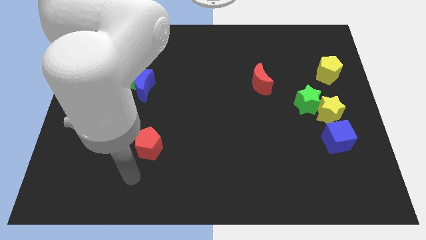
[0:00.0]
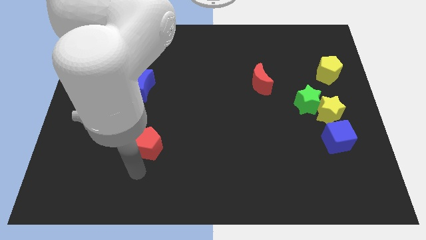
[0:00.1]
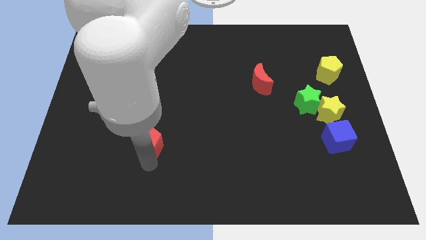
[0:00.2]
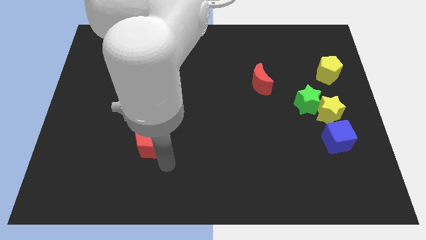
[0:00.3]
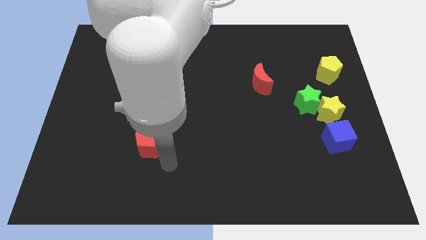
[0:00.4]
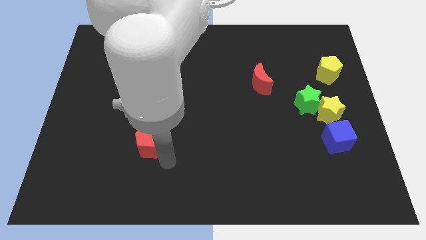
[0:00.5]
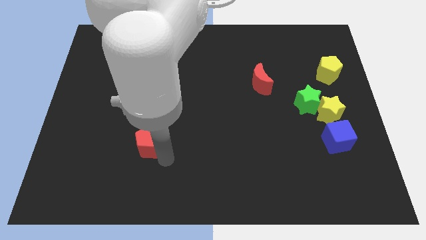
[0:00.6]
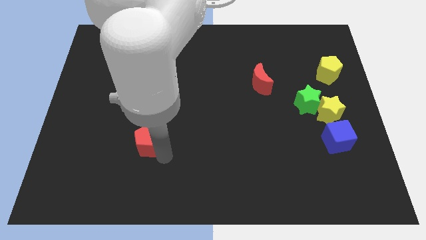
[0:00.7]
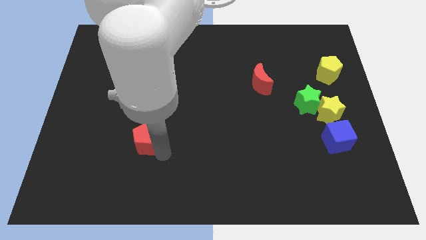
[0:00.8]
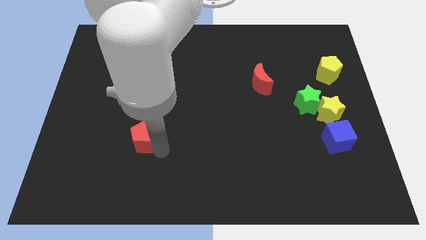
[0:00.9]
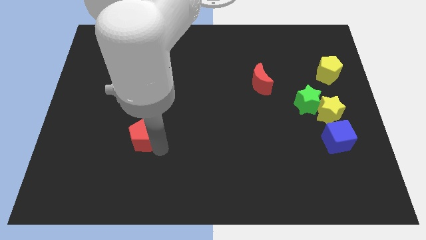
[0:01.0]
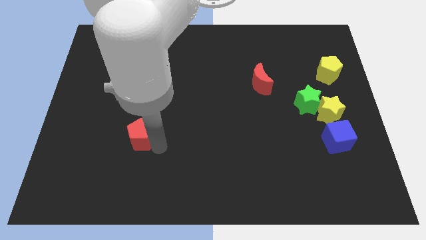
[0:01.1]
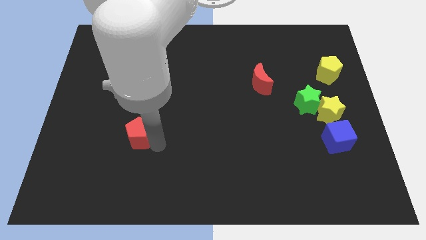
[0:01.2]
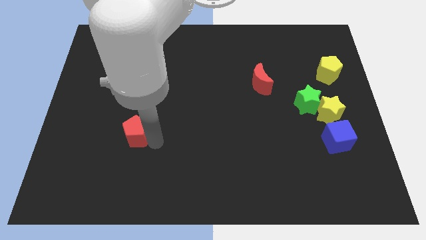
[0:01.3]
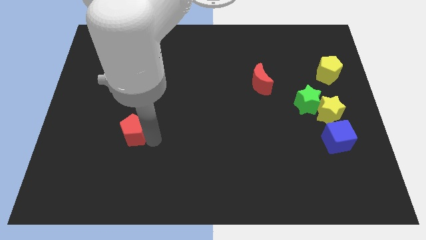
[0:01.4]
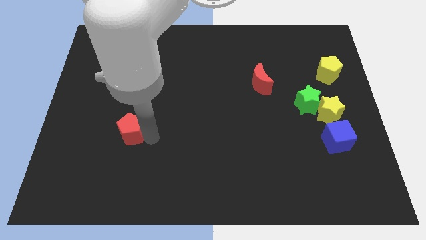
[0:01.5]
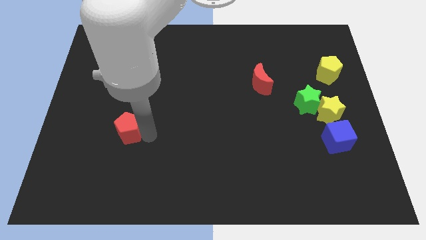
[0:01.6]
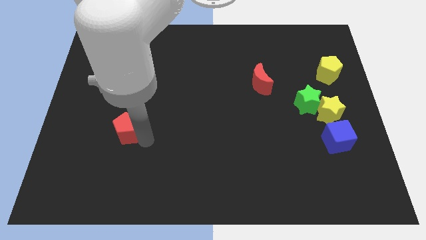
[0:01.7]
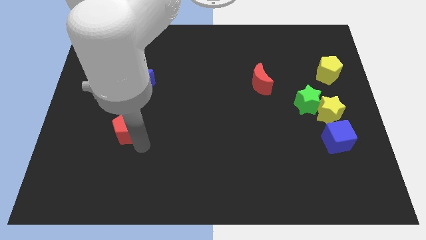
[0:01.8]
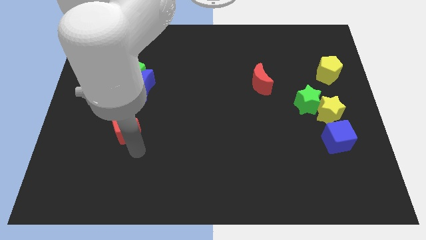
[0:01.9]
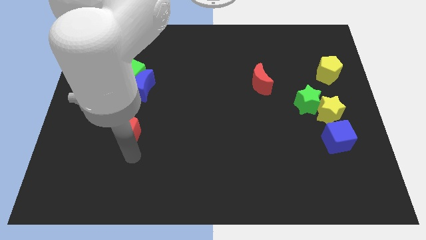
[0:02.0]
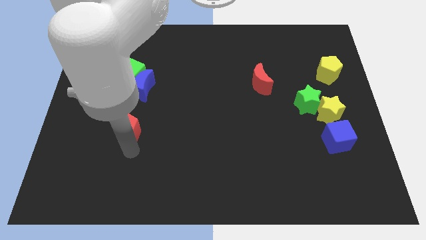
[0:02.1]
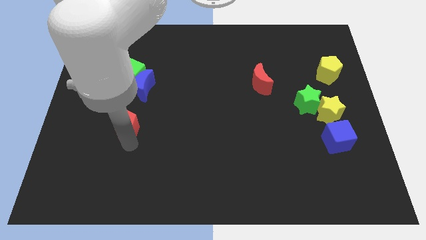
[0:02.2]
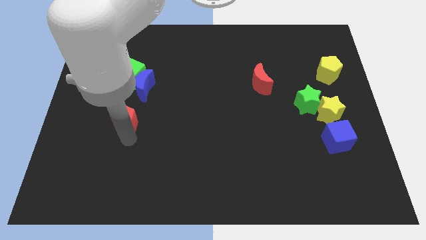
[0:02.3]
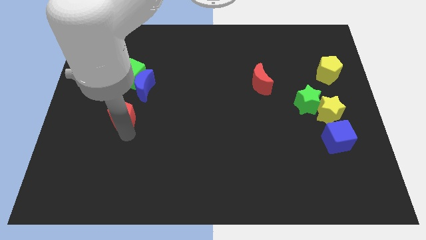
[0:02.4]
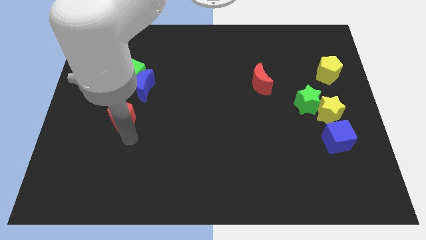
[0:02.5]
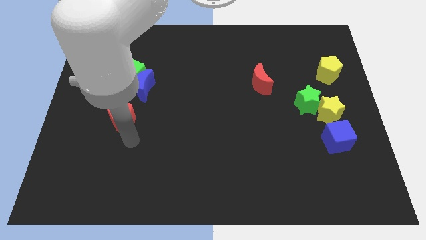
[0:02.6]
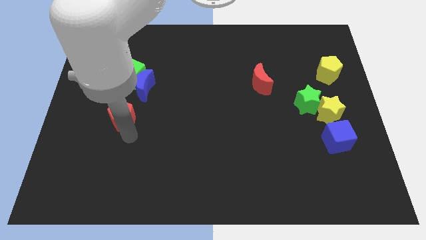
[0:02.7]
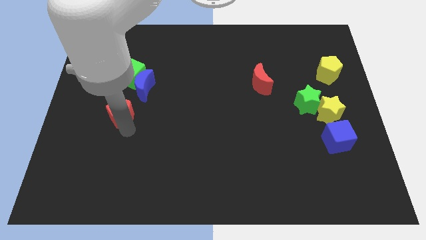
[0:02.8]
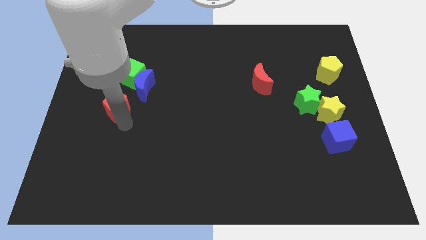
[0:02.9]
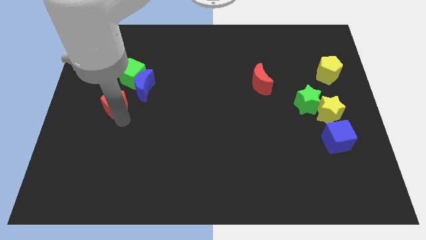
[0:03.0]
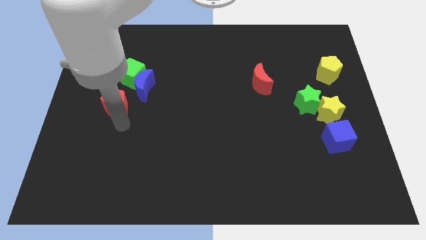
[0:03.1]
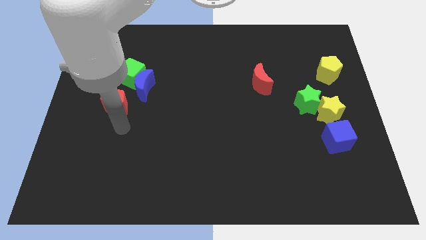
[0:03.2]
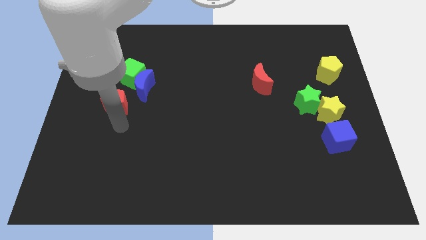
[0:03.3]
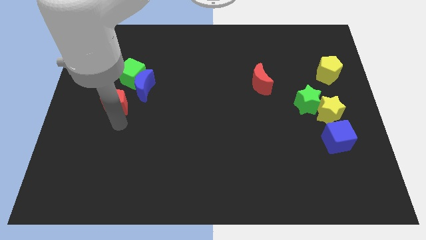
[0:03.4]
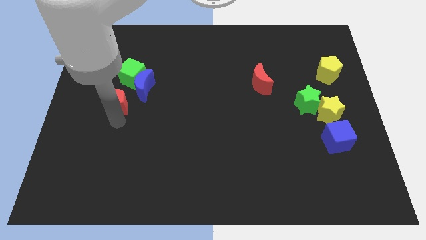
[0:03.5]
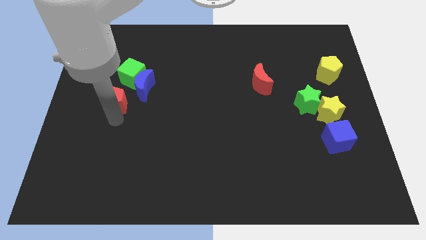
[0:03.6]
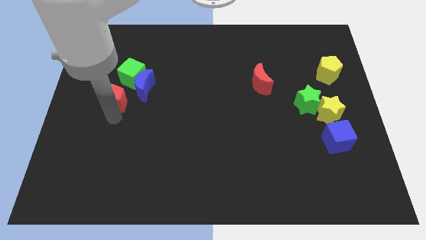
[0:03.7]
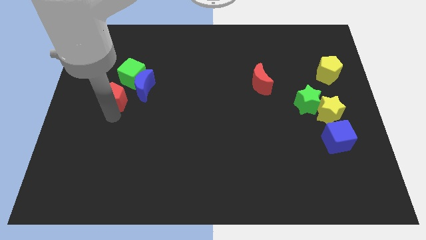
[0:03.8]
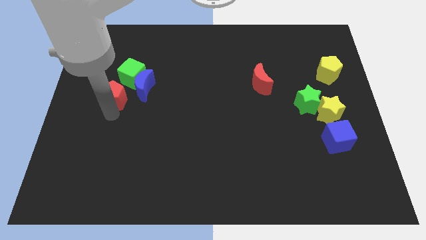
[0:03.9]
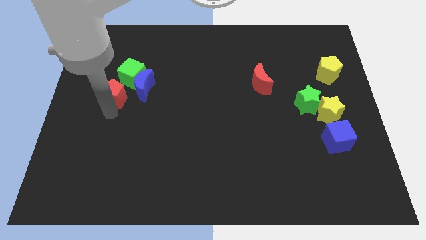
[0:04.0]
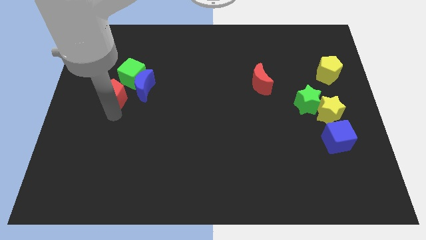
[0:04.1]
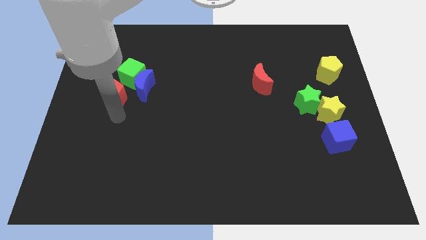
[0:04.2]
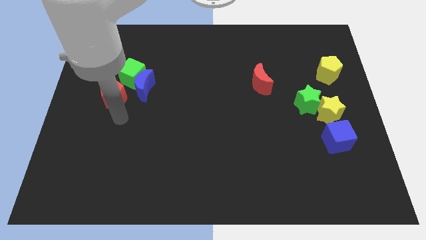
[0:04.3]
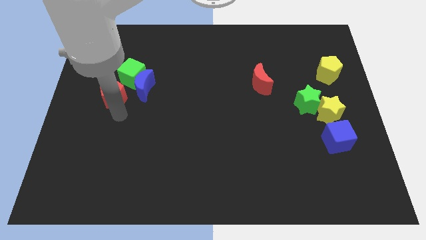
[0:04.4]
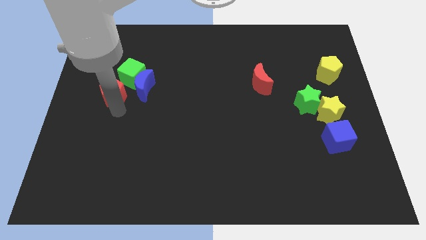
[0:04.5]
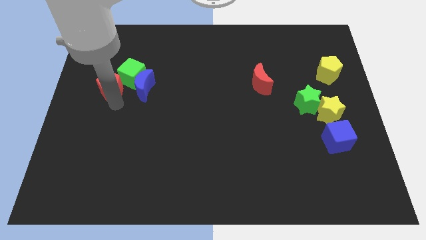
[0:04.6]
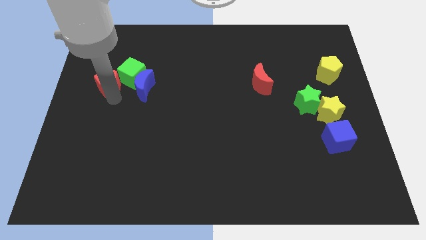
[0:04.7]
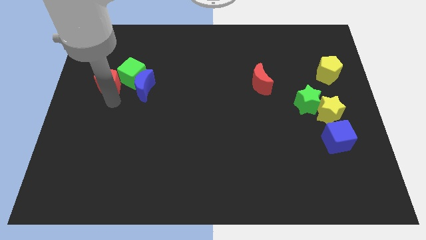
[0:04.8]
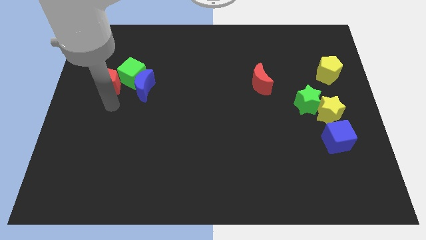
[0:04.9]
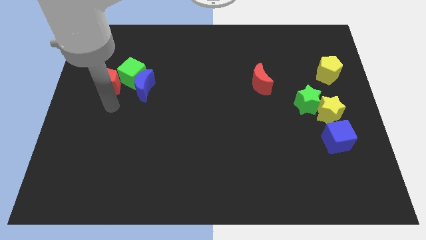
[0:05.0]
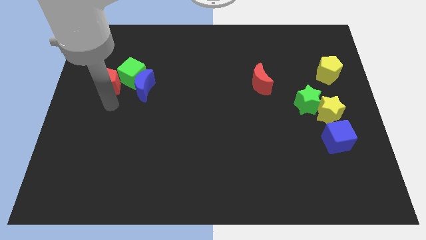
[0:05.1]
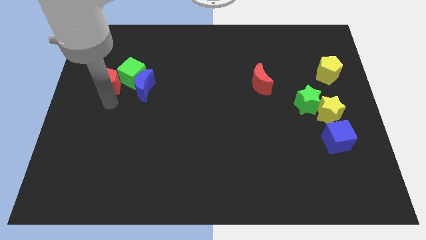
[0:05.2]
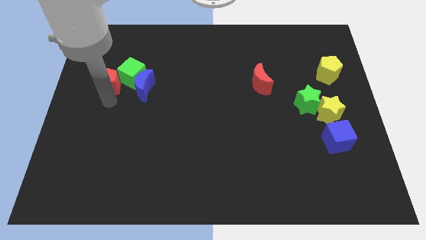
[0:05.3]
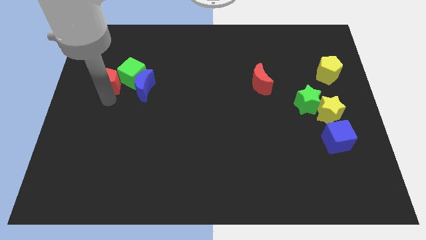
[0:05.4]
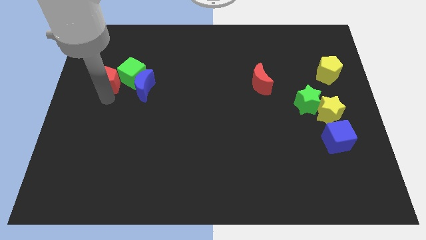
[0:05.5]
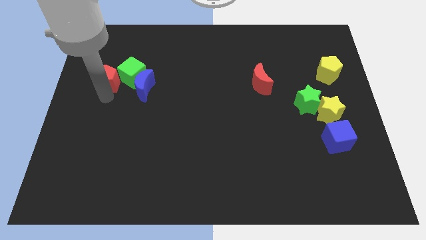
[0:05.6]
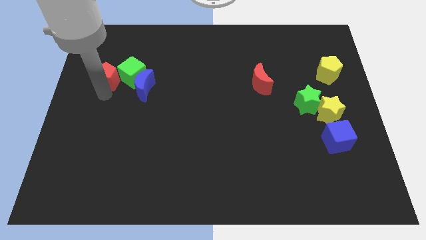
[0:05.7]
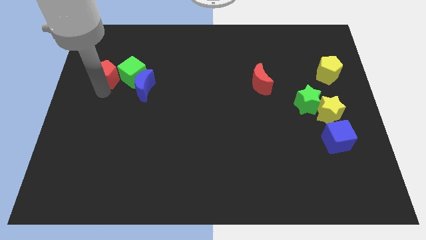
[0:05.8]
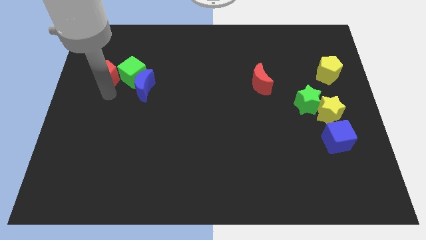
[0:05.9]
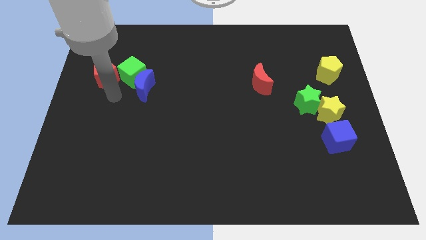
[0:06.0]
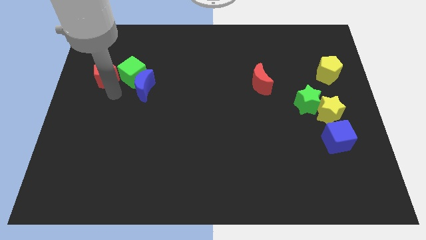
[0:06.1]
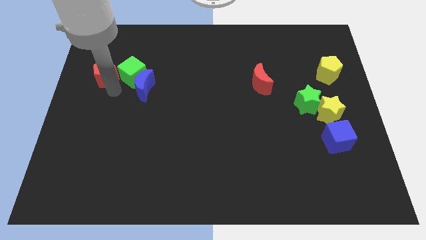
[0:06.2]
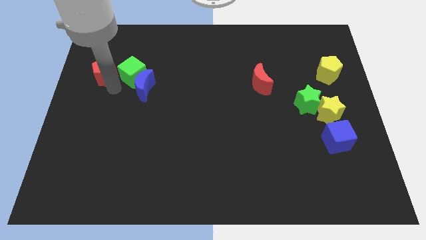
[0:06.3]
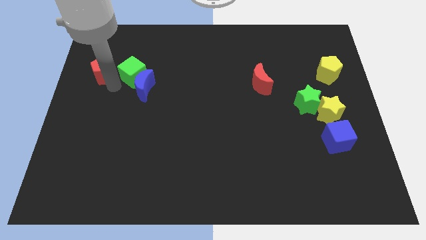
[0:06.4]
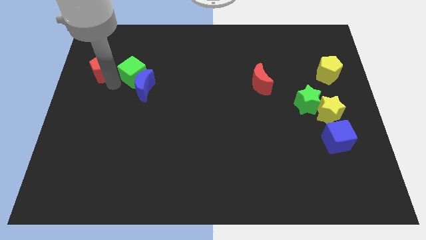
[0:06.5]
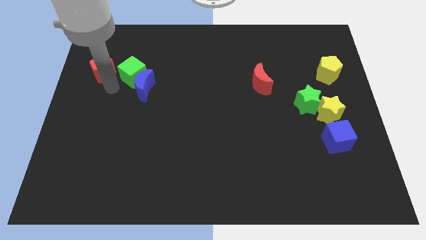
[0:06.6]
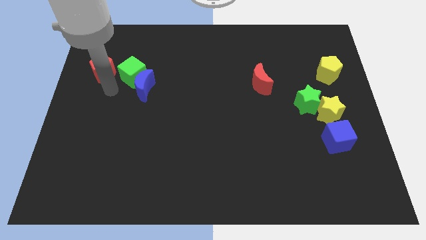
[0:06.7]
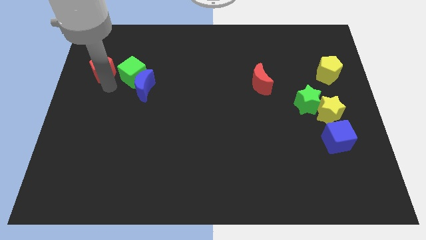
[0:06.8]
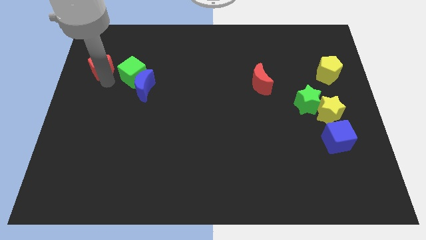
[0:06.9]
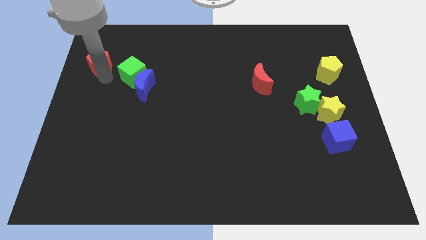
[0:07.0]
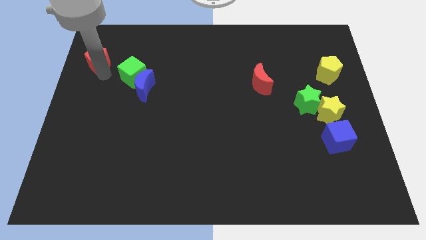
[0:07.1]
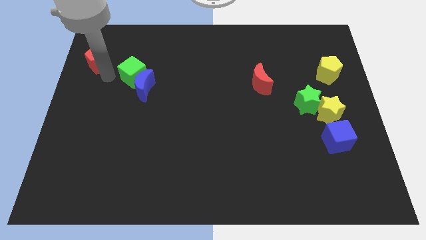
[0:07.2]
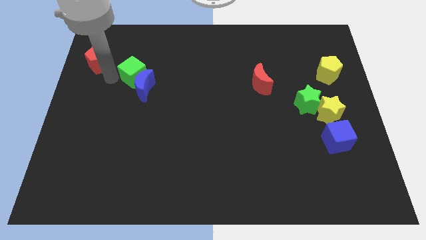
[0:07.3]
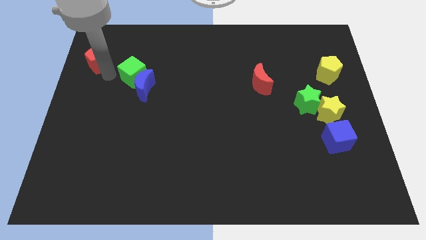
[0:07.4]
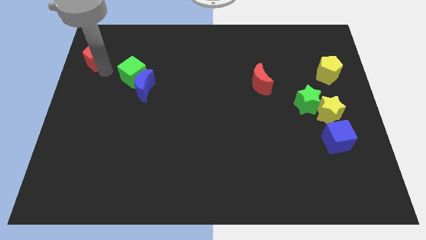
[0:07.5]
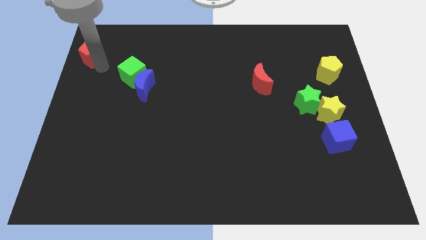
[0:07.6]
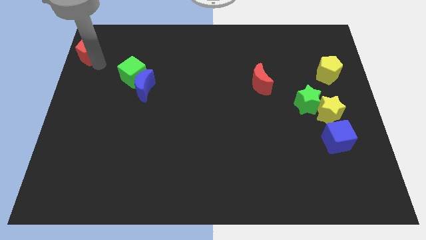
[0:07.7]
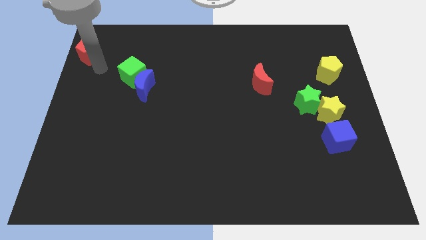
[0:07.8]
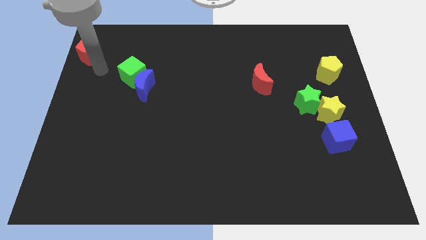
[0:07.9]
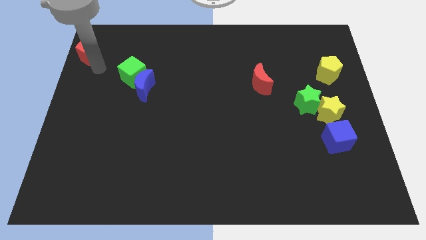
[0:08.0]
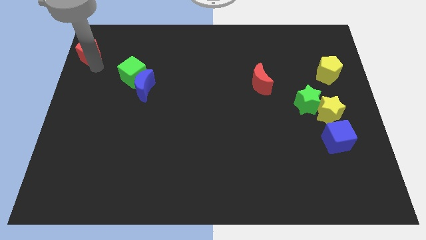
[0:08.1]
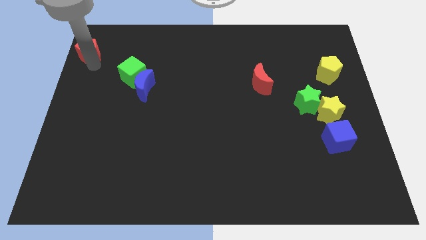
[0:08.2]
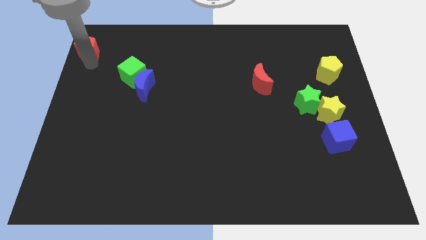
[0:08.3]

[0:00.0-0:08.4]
push the red pentagon to the top left corner
